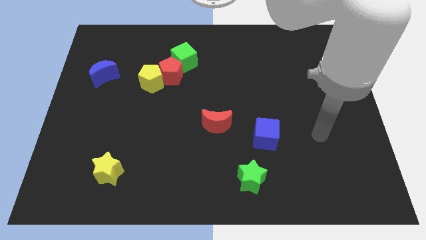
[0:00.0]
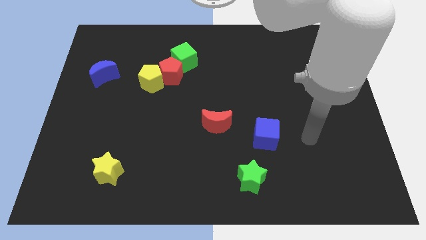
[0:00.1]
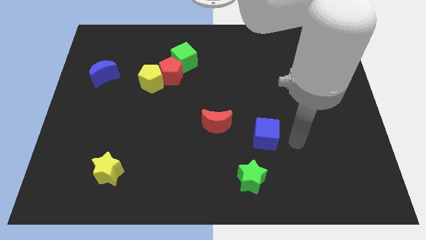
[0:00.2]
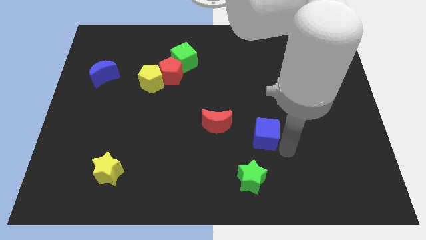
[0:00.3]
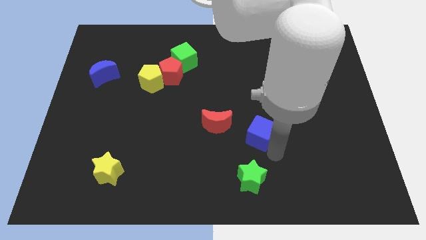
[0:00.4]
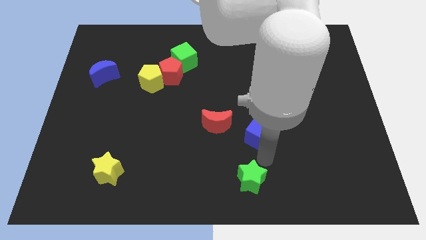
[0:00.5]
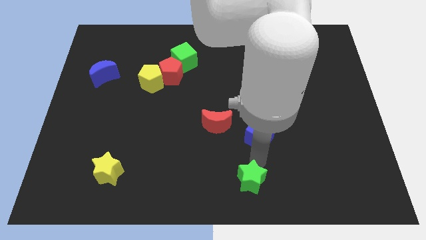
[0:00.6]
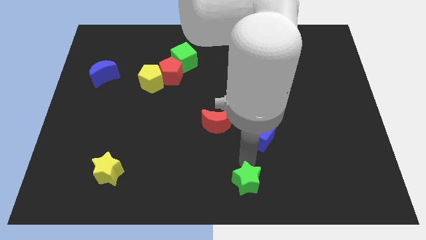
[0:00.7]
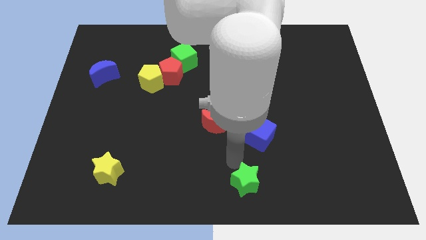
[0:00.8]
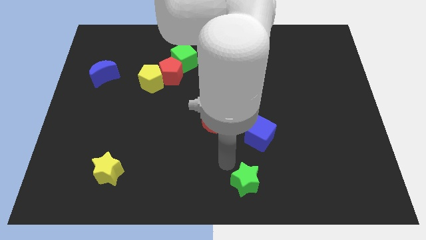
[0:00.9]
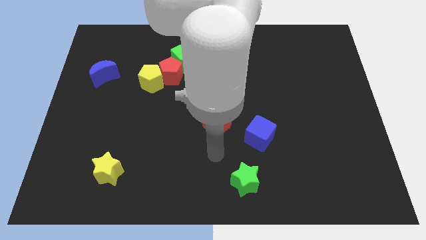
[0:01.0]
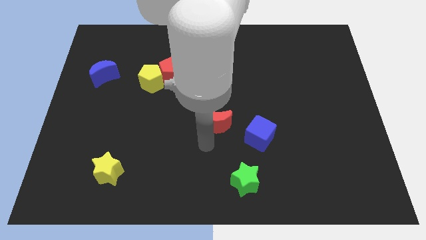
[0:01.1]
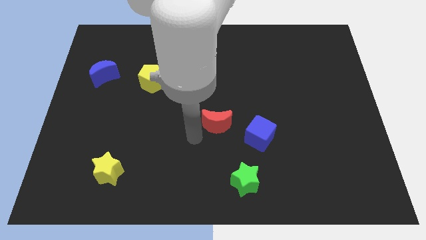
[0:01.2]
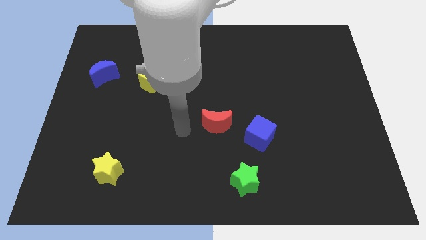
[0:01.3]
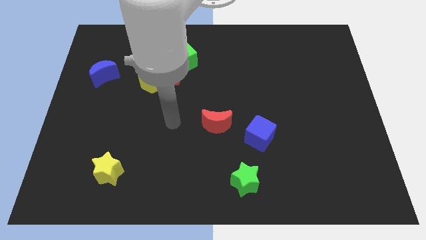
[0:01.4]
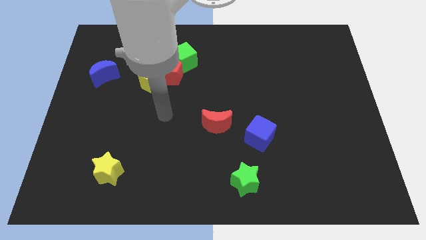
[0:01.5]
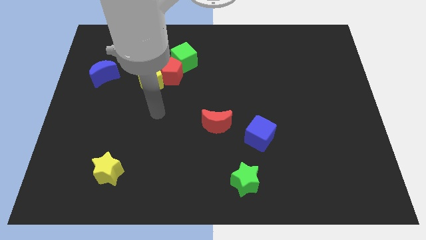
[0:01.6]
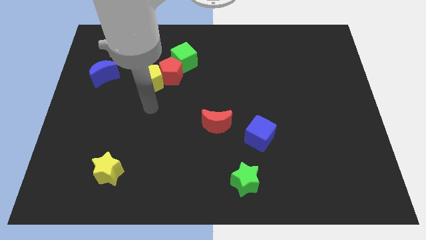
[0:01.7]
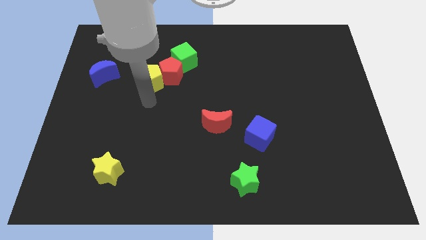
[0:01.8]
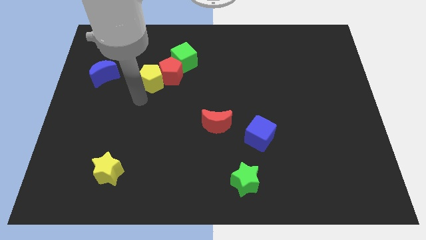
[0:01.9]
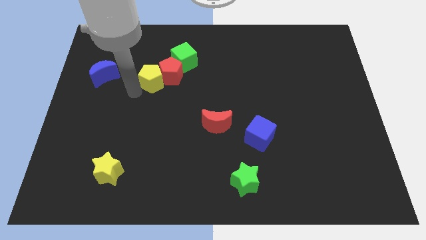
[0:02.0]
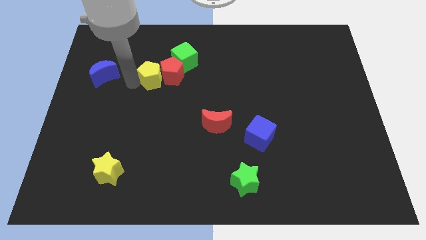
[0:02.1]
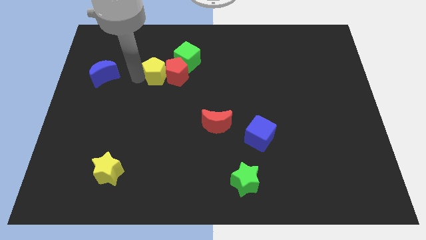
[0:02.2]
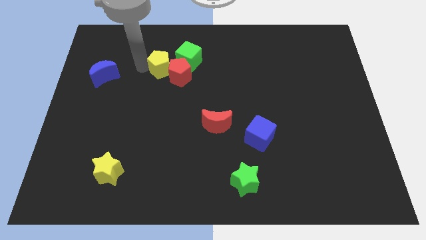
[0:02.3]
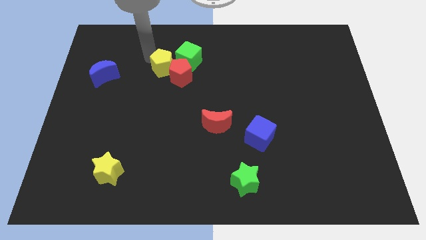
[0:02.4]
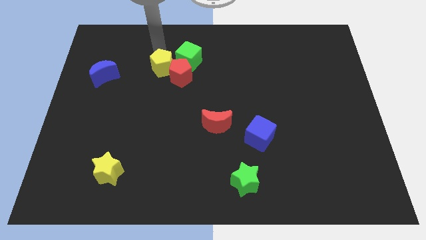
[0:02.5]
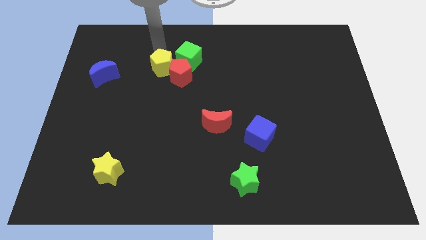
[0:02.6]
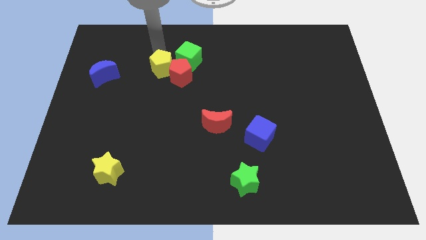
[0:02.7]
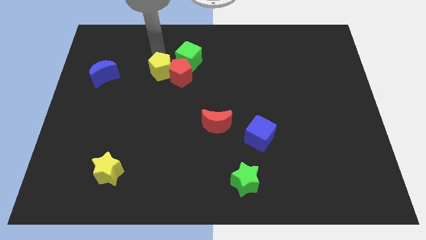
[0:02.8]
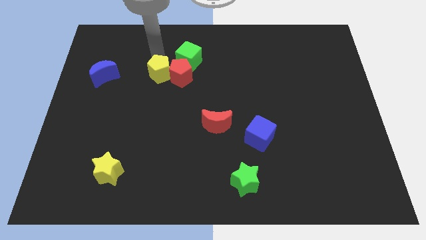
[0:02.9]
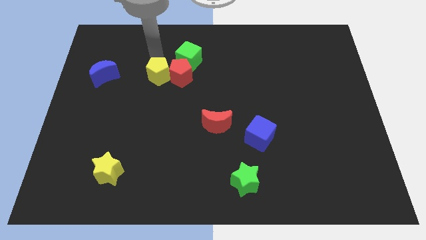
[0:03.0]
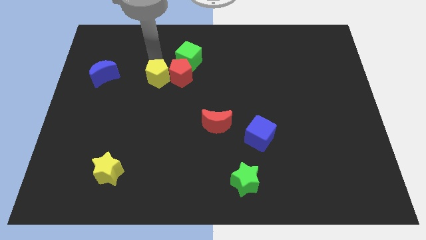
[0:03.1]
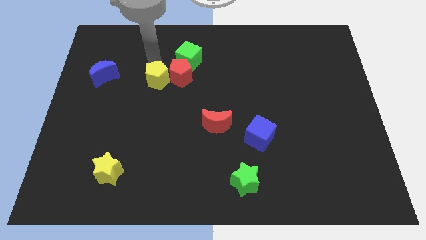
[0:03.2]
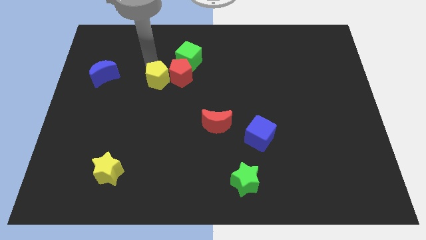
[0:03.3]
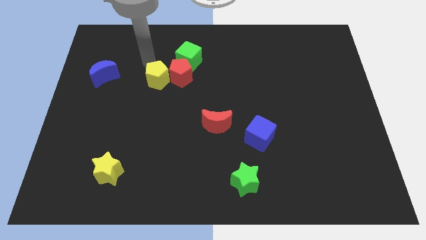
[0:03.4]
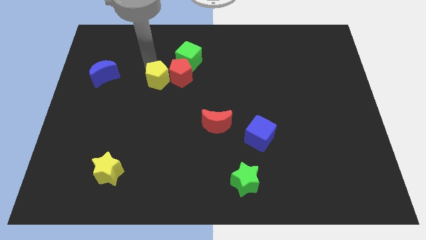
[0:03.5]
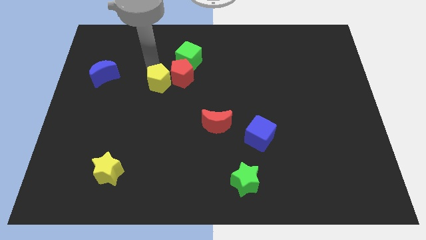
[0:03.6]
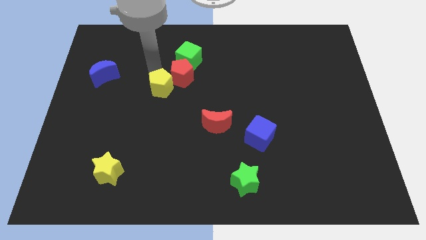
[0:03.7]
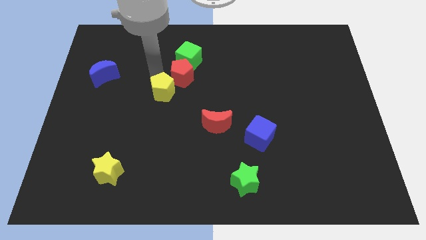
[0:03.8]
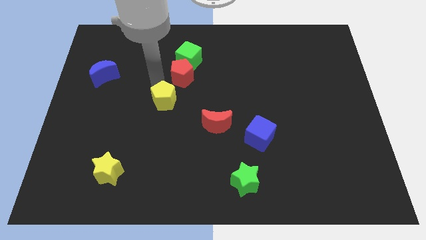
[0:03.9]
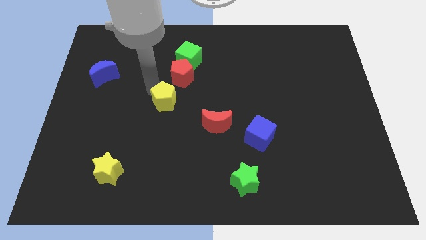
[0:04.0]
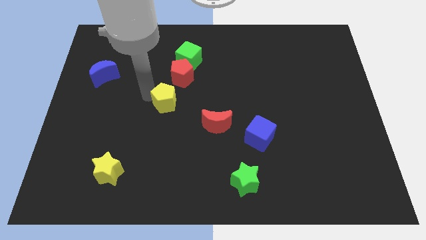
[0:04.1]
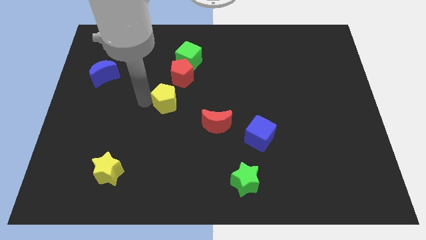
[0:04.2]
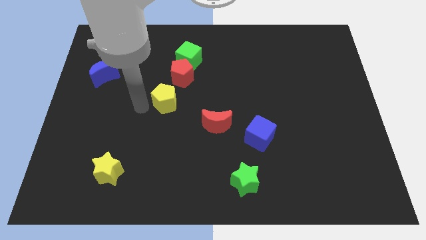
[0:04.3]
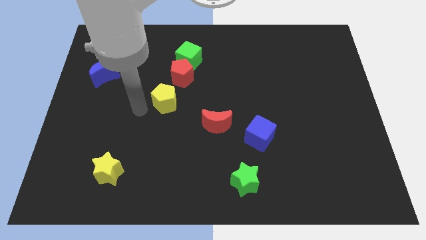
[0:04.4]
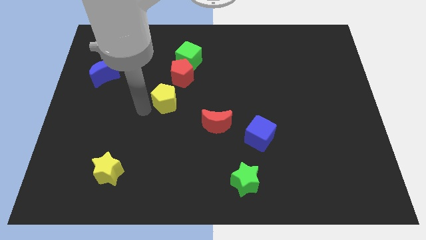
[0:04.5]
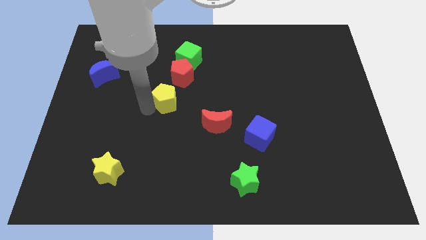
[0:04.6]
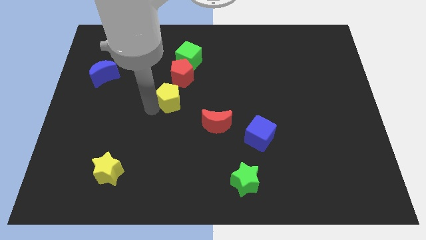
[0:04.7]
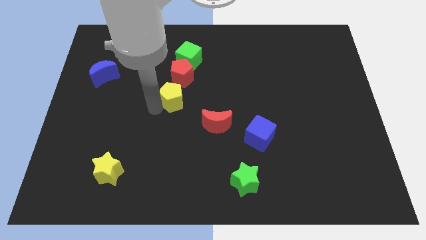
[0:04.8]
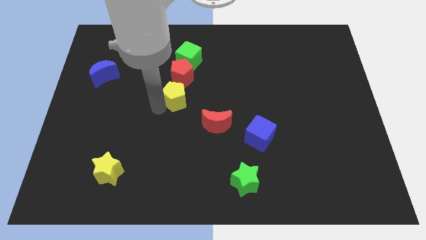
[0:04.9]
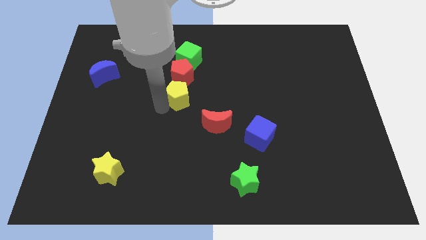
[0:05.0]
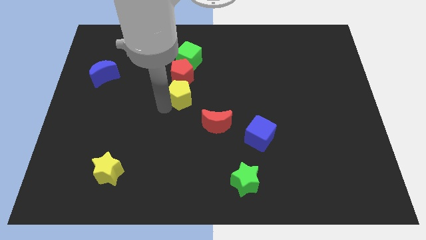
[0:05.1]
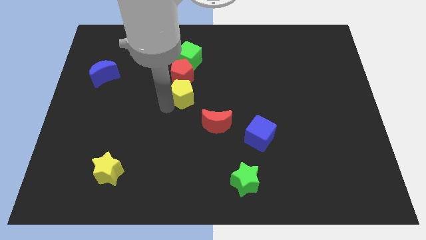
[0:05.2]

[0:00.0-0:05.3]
move the yellow pentagon to the right a bit

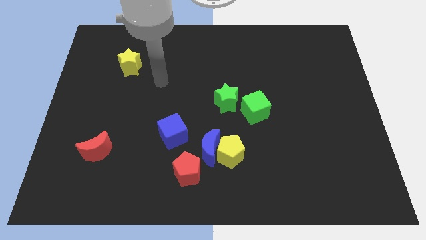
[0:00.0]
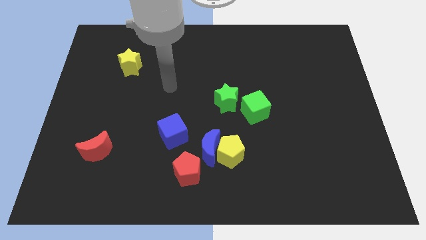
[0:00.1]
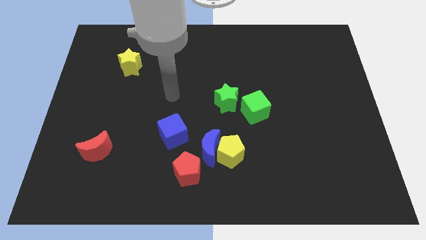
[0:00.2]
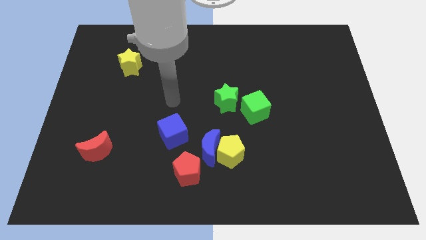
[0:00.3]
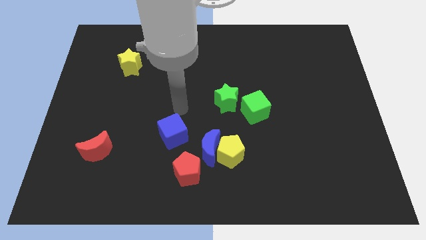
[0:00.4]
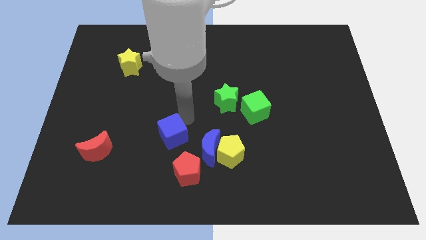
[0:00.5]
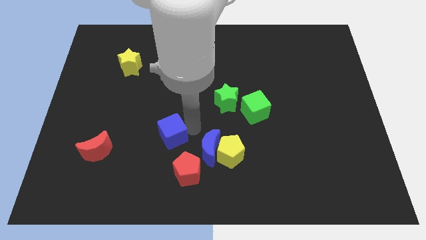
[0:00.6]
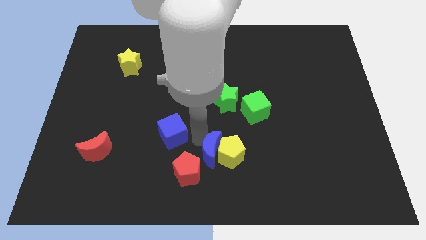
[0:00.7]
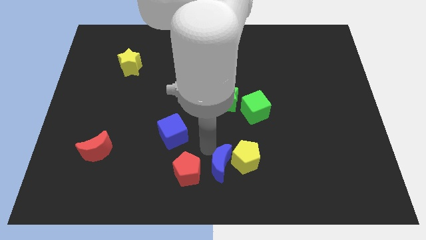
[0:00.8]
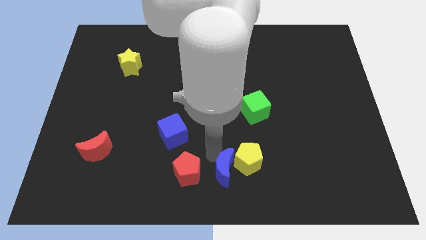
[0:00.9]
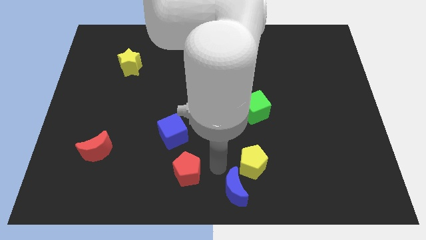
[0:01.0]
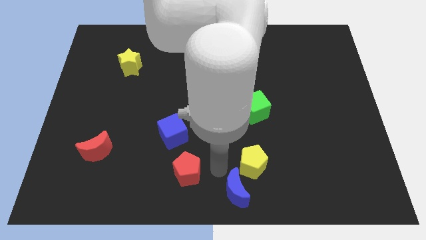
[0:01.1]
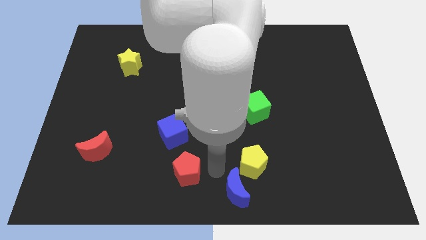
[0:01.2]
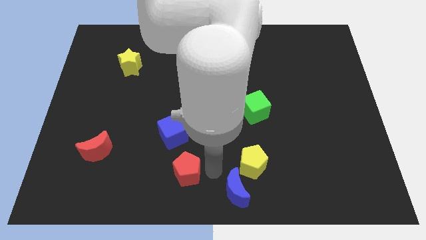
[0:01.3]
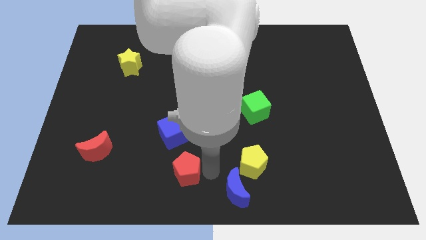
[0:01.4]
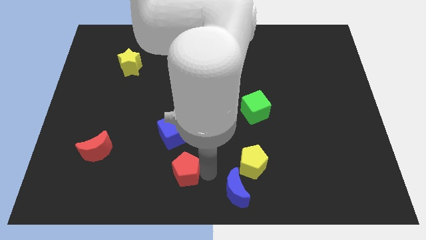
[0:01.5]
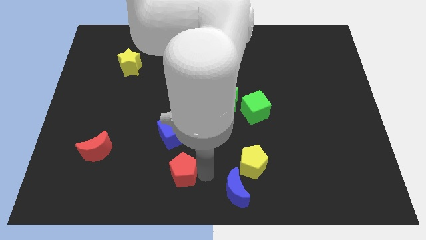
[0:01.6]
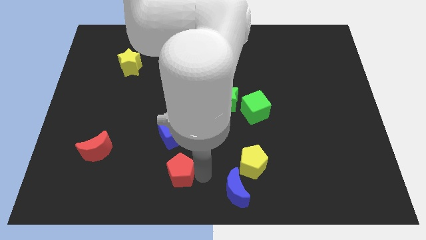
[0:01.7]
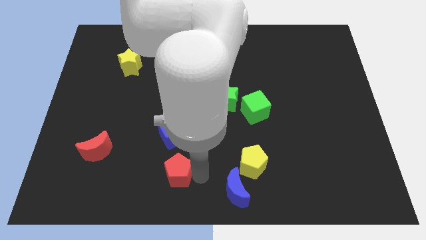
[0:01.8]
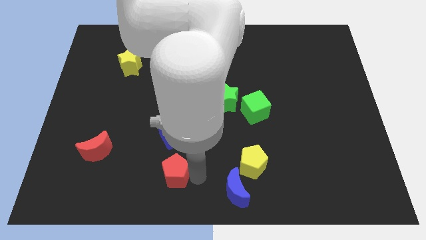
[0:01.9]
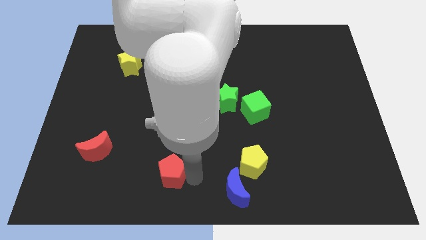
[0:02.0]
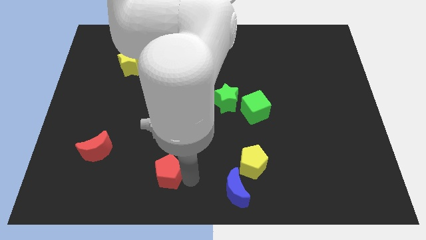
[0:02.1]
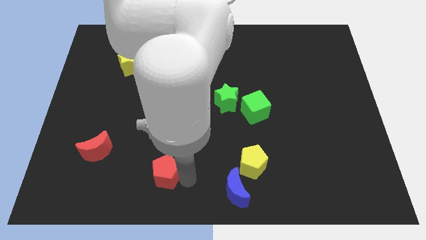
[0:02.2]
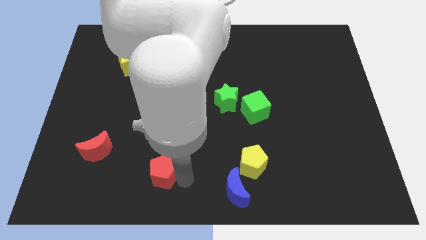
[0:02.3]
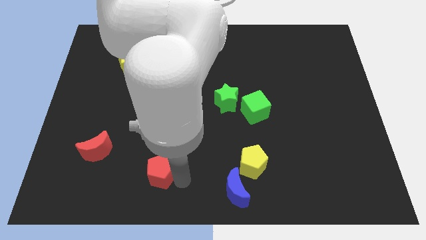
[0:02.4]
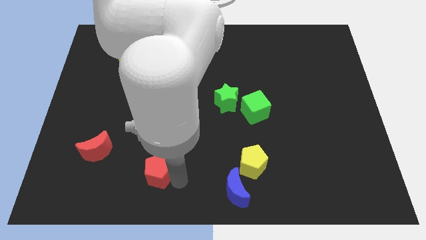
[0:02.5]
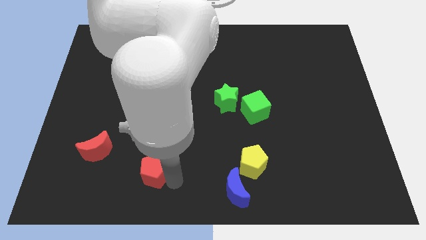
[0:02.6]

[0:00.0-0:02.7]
slightly push the red pentagon left
